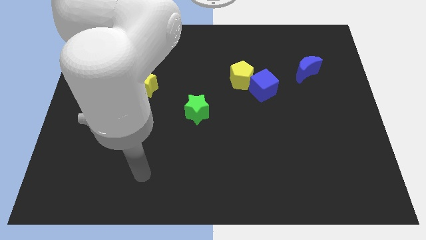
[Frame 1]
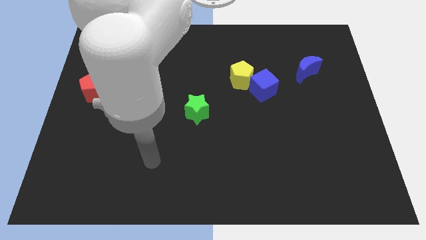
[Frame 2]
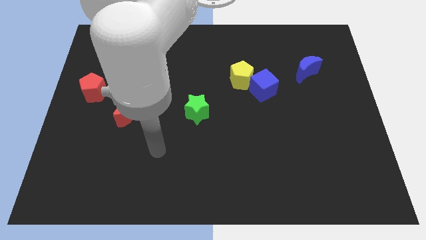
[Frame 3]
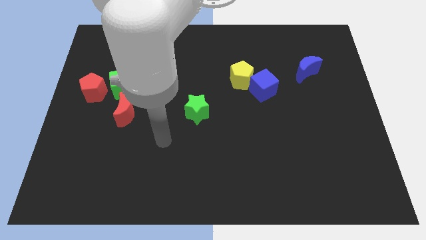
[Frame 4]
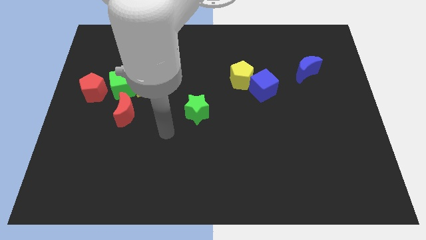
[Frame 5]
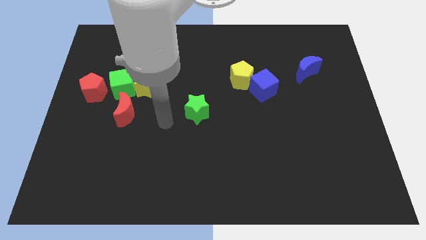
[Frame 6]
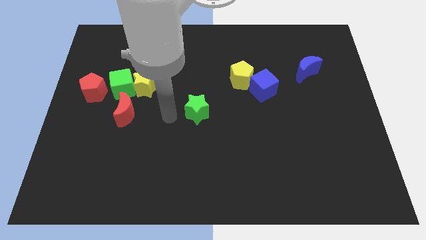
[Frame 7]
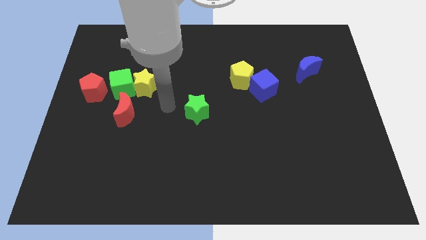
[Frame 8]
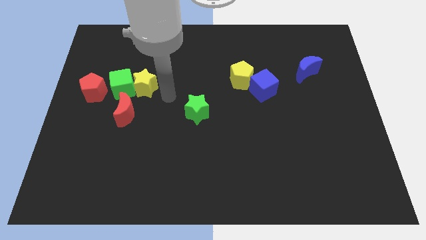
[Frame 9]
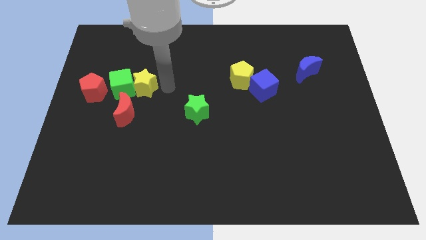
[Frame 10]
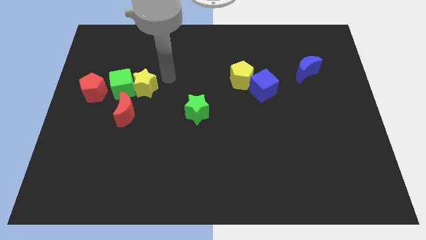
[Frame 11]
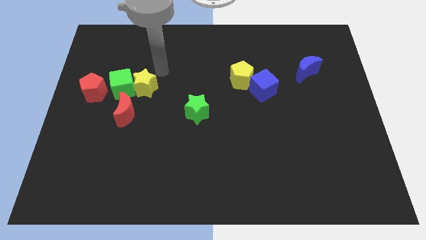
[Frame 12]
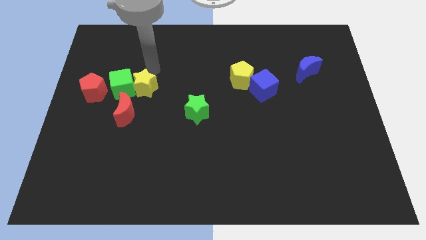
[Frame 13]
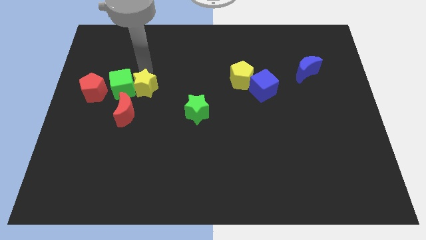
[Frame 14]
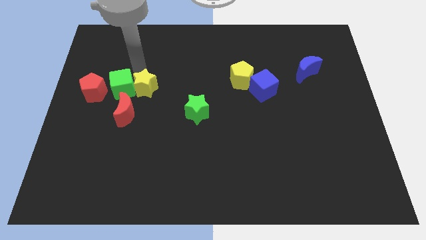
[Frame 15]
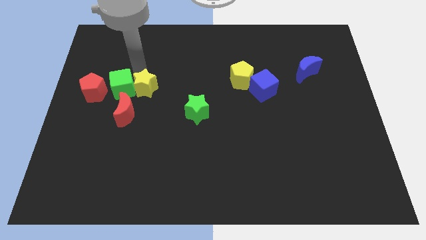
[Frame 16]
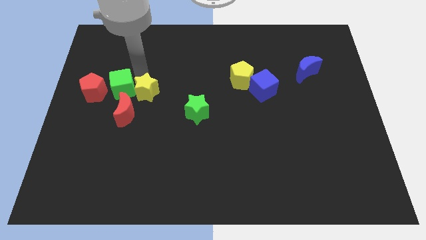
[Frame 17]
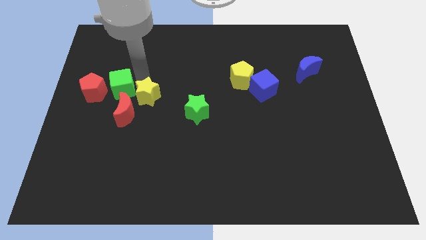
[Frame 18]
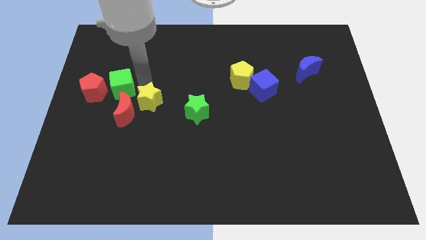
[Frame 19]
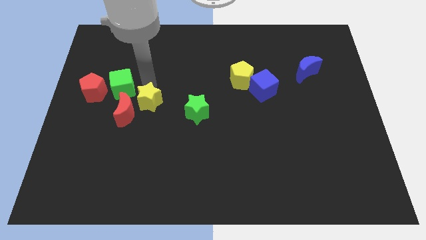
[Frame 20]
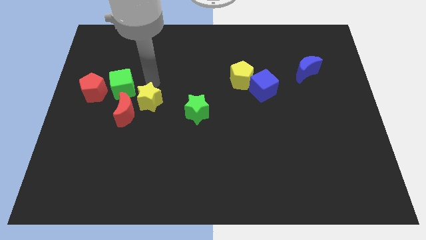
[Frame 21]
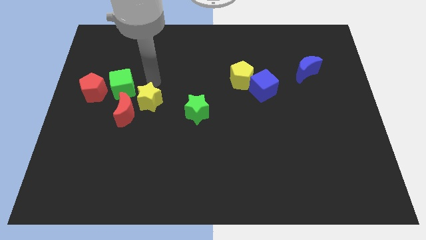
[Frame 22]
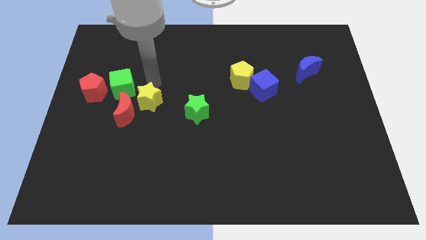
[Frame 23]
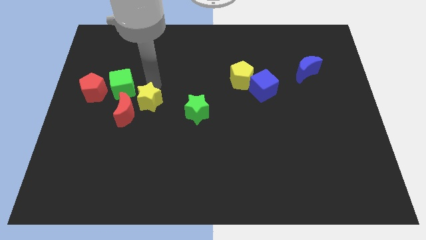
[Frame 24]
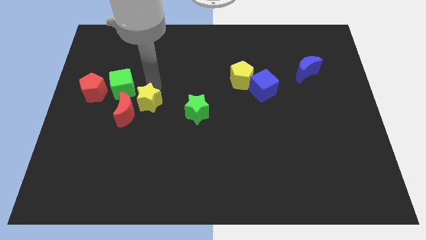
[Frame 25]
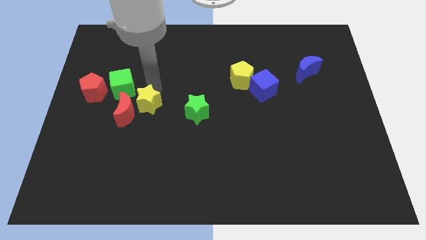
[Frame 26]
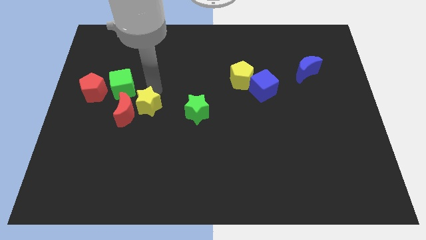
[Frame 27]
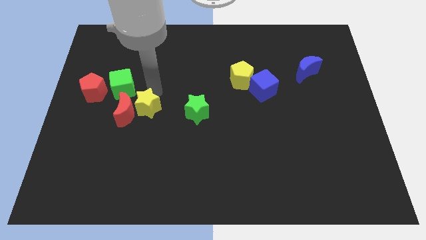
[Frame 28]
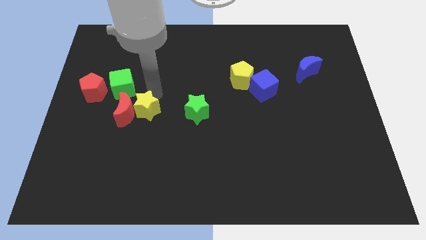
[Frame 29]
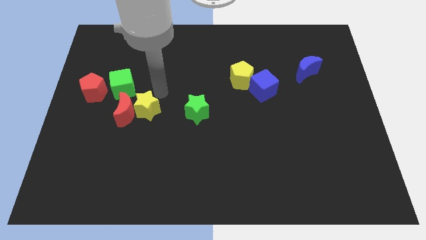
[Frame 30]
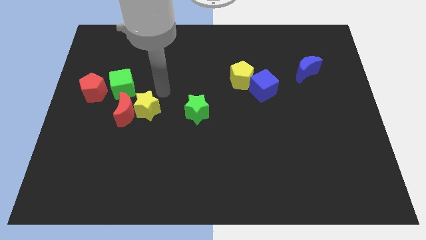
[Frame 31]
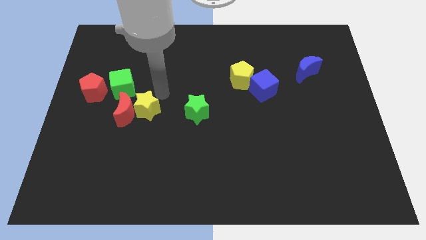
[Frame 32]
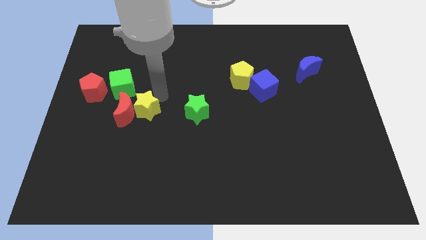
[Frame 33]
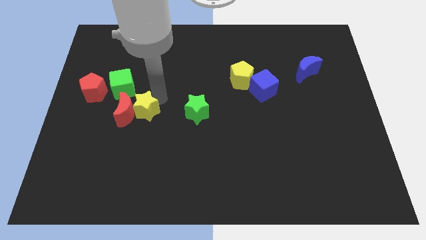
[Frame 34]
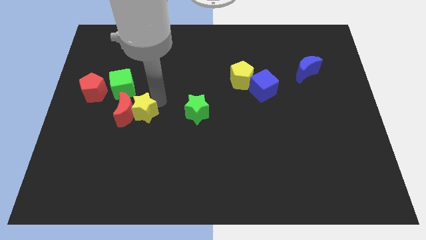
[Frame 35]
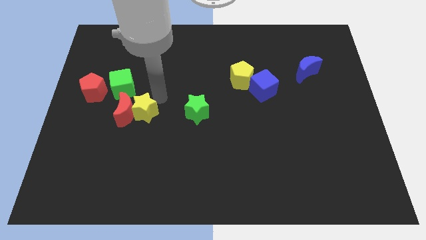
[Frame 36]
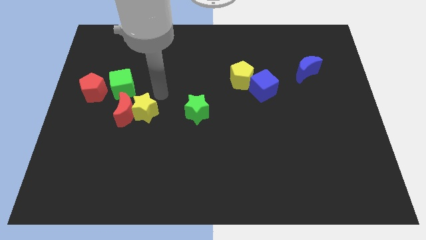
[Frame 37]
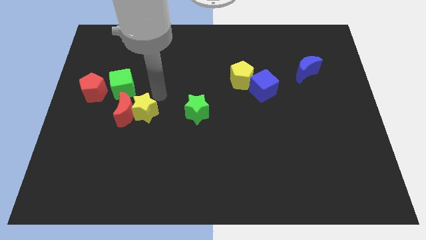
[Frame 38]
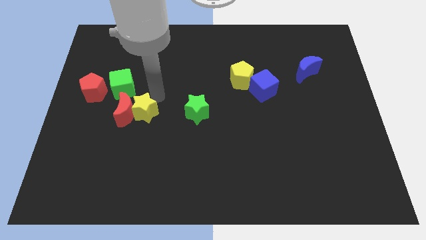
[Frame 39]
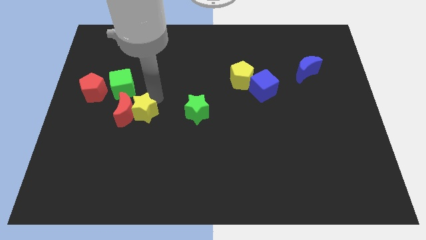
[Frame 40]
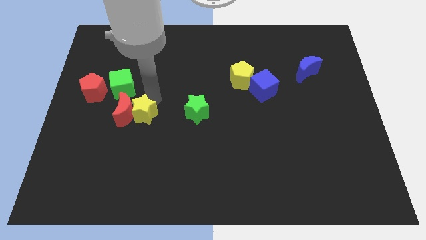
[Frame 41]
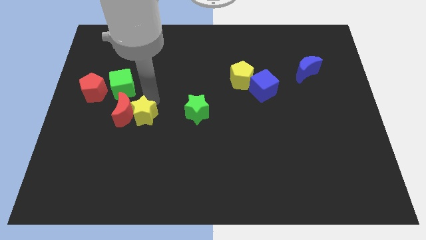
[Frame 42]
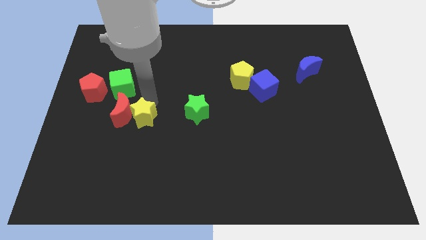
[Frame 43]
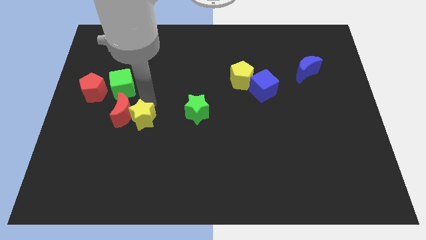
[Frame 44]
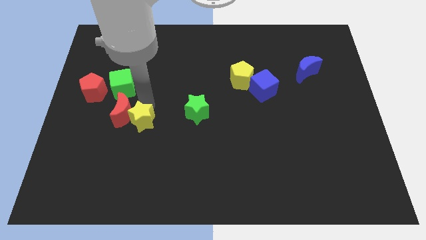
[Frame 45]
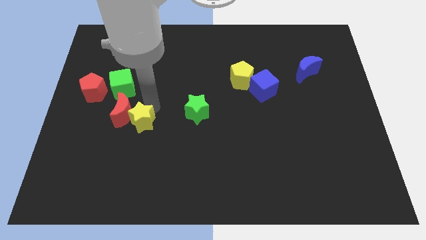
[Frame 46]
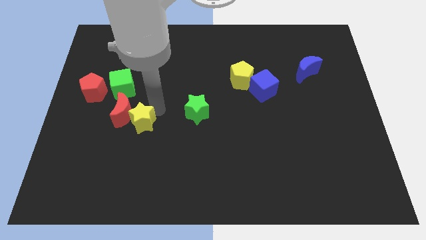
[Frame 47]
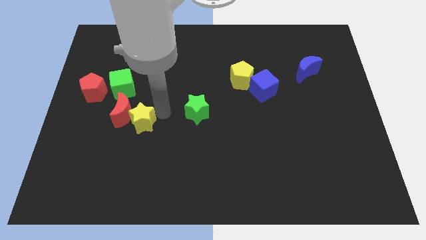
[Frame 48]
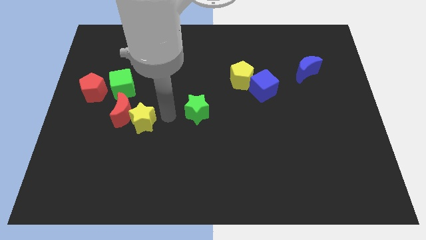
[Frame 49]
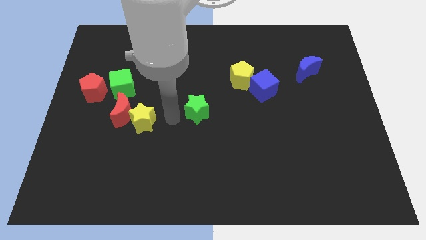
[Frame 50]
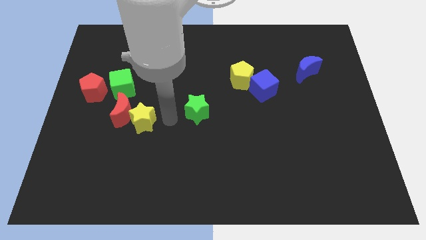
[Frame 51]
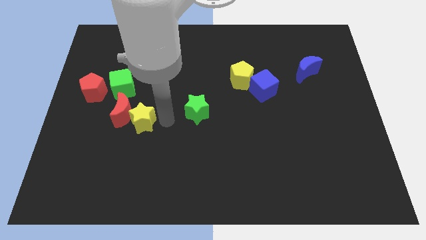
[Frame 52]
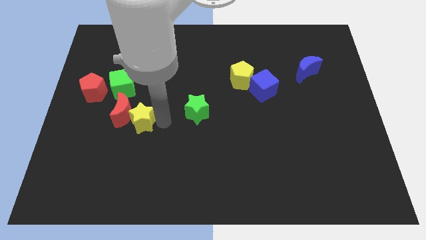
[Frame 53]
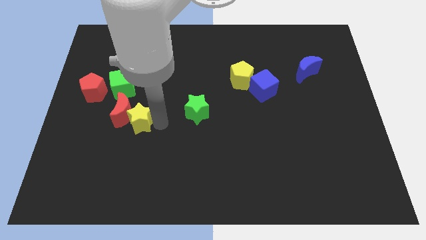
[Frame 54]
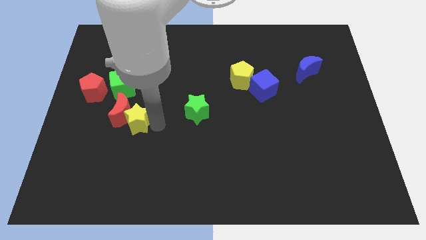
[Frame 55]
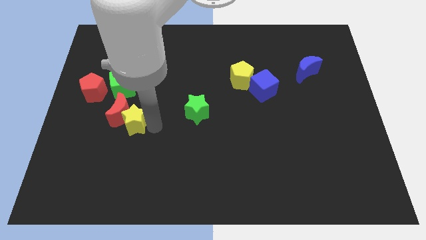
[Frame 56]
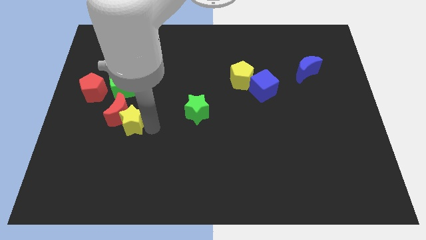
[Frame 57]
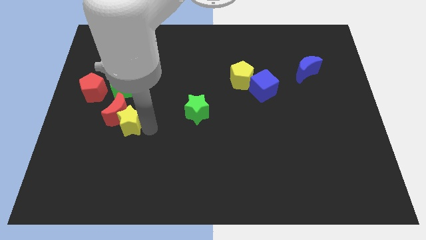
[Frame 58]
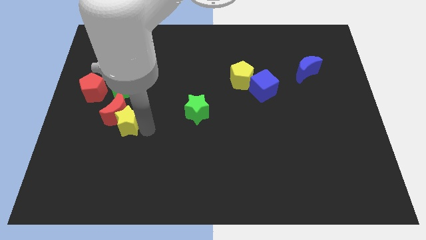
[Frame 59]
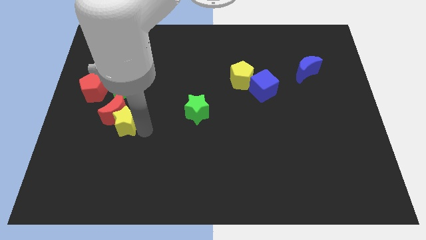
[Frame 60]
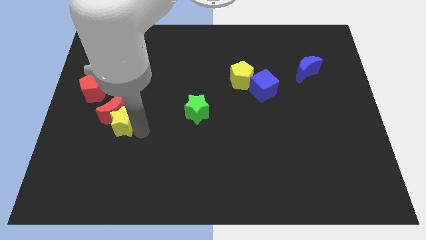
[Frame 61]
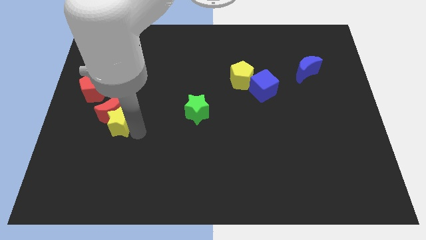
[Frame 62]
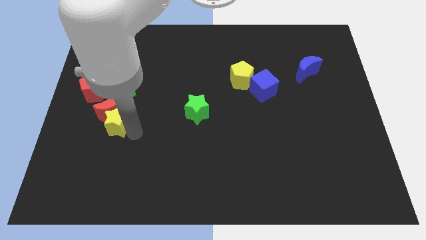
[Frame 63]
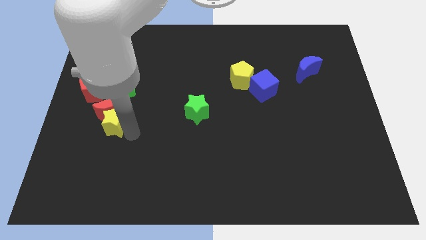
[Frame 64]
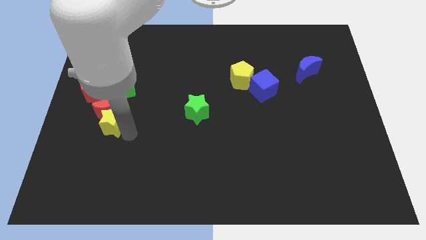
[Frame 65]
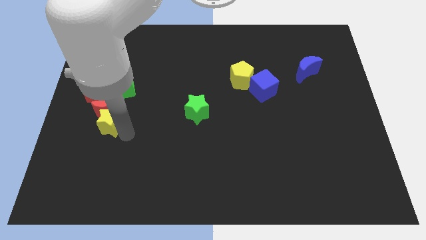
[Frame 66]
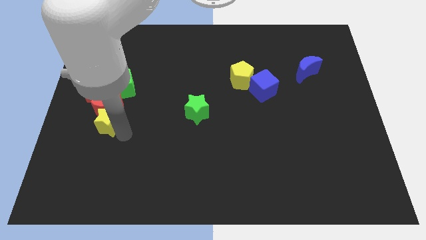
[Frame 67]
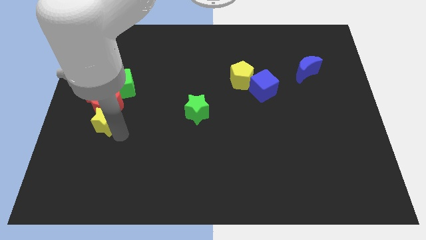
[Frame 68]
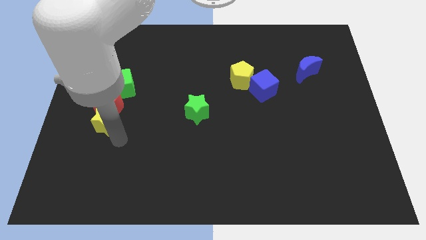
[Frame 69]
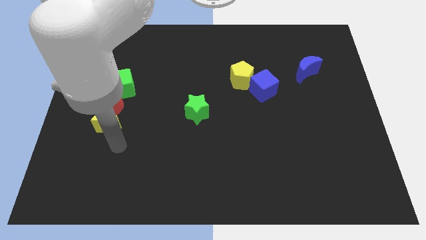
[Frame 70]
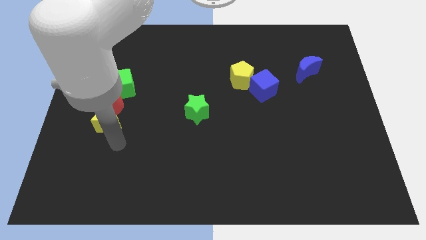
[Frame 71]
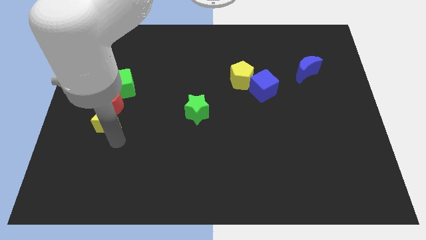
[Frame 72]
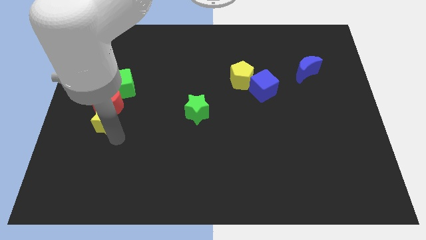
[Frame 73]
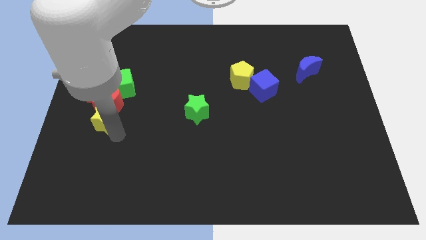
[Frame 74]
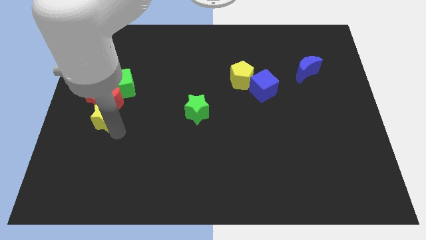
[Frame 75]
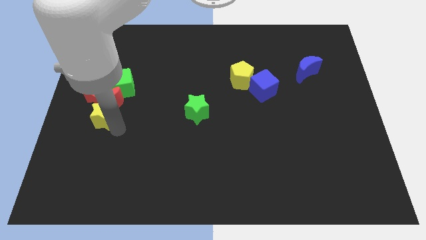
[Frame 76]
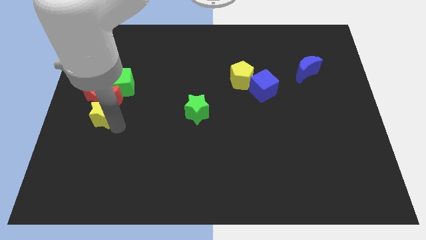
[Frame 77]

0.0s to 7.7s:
move the yellow star to the bottom left side of the green cube
